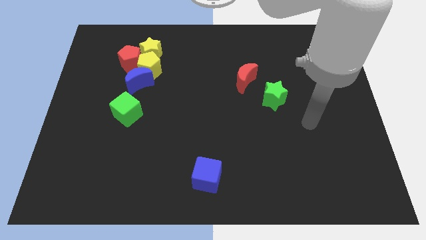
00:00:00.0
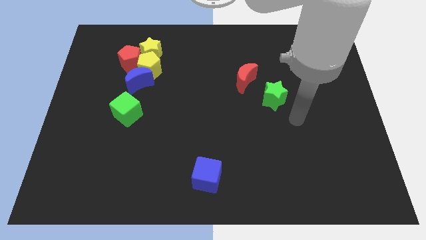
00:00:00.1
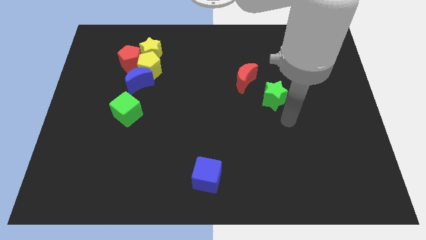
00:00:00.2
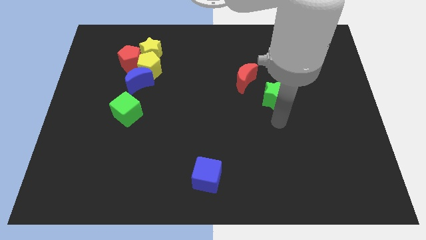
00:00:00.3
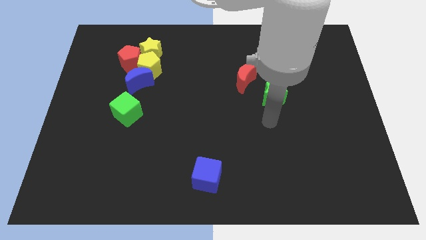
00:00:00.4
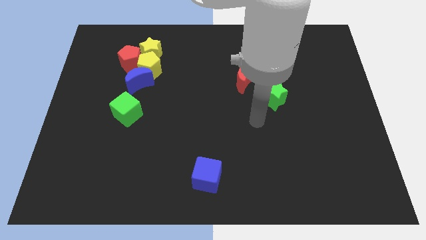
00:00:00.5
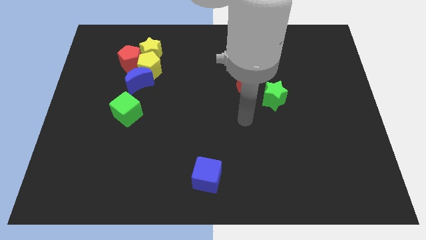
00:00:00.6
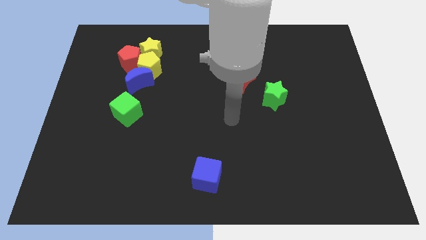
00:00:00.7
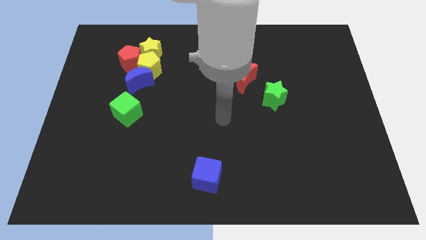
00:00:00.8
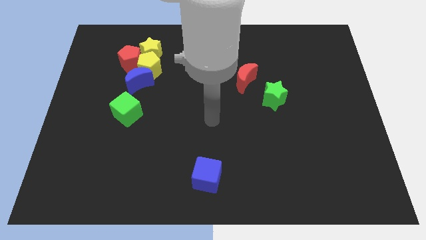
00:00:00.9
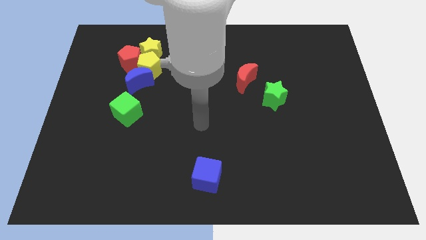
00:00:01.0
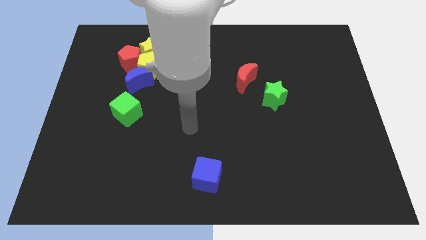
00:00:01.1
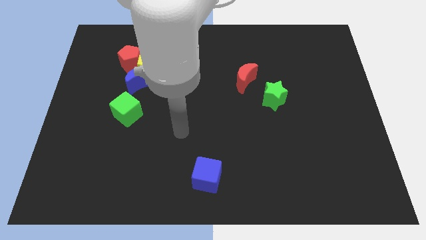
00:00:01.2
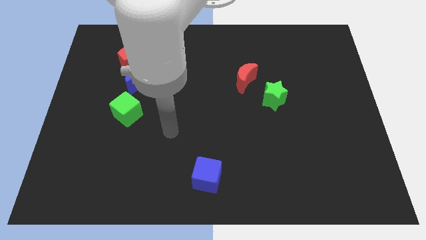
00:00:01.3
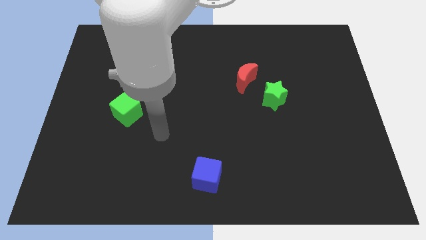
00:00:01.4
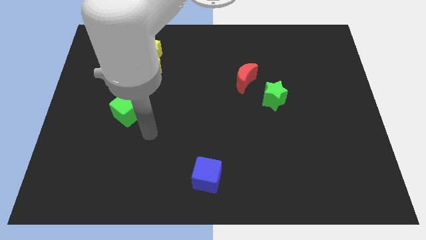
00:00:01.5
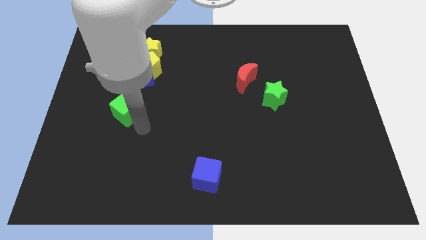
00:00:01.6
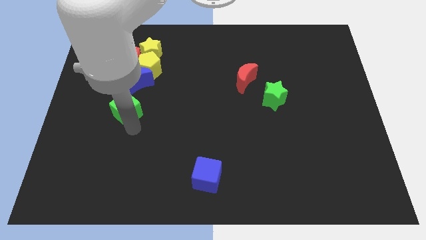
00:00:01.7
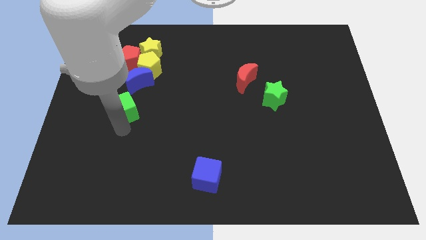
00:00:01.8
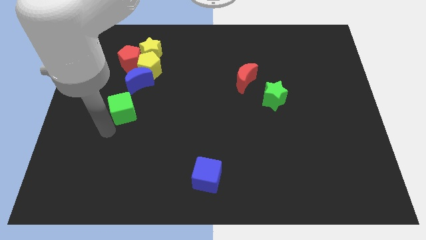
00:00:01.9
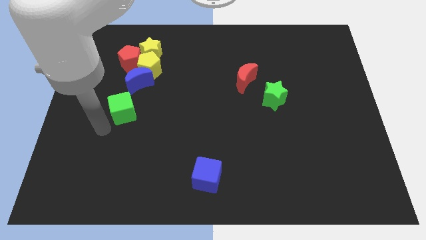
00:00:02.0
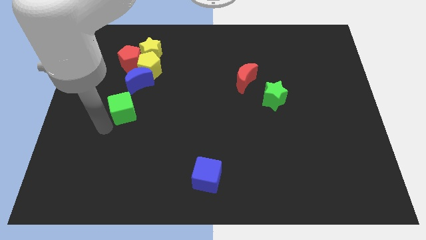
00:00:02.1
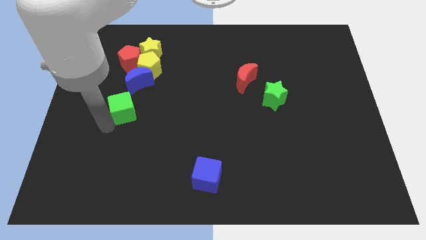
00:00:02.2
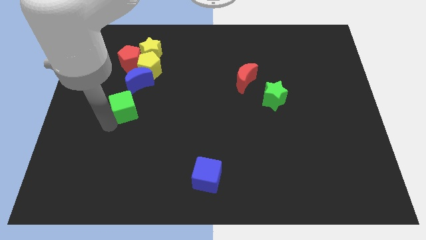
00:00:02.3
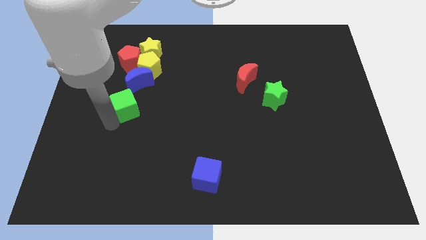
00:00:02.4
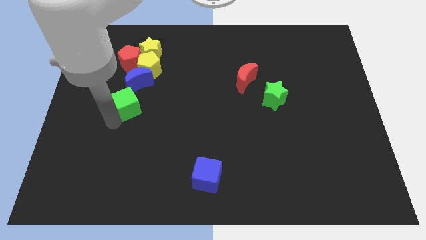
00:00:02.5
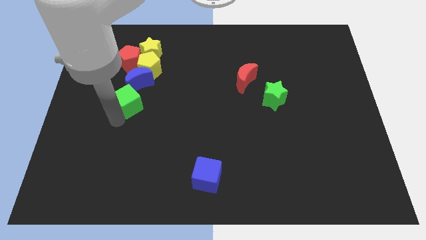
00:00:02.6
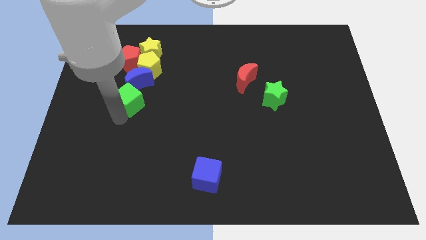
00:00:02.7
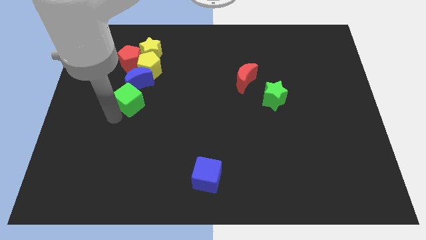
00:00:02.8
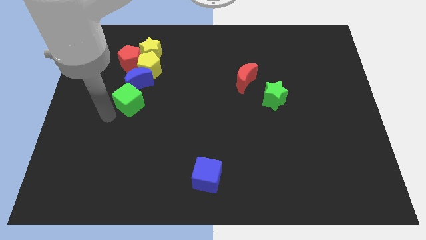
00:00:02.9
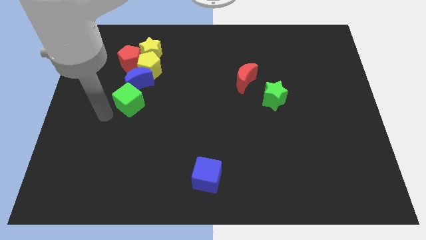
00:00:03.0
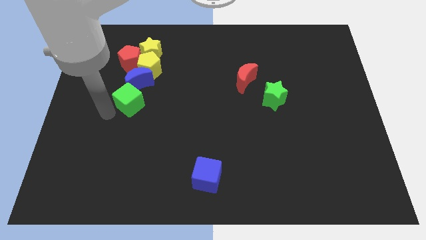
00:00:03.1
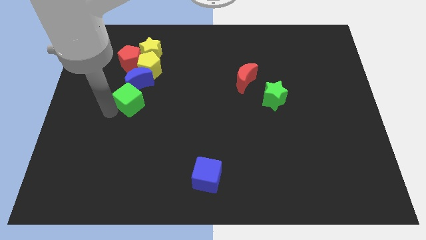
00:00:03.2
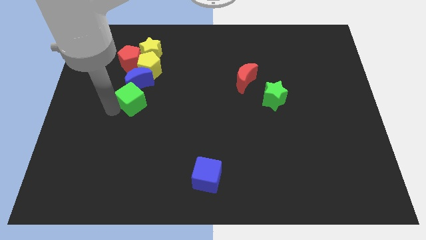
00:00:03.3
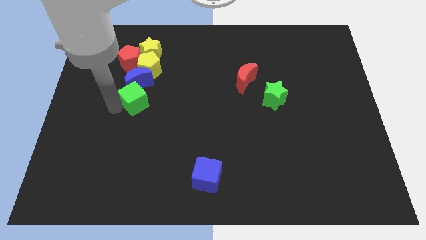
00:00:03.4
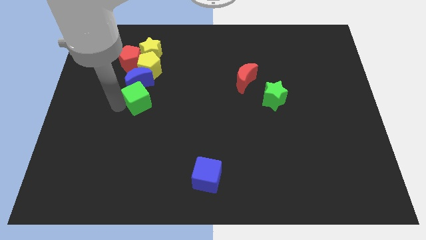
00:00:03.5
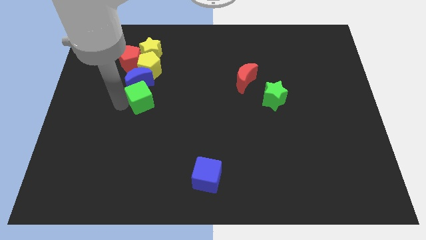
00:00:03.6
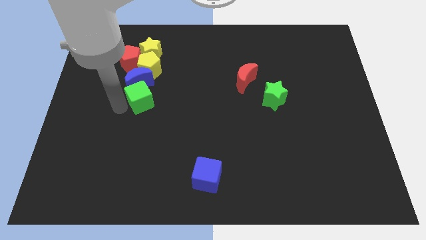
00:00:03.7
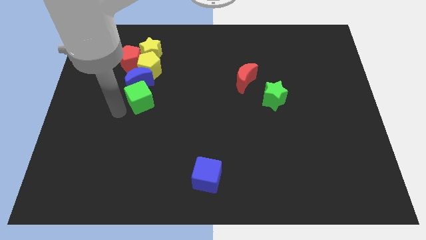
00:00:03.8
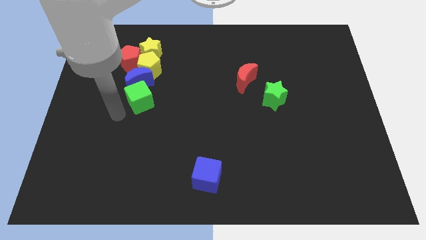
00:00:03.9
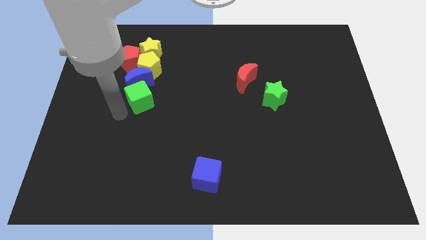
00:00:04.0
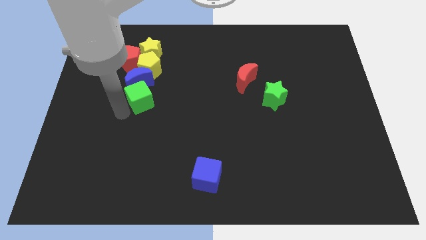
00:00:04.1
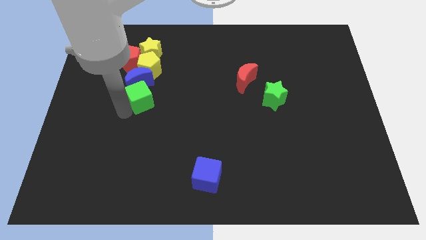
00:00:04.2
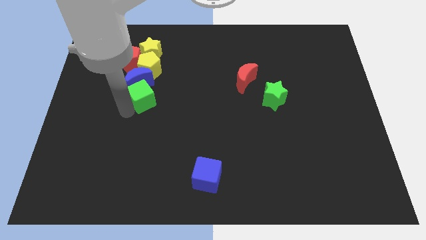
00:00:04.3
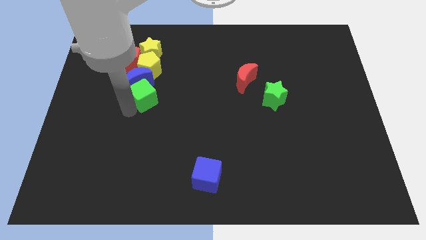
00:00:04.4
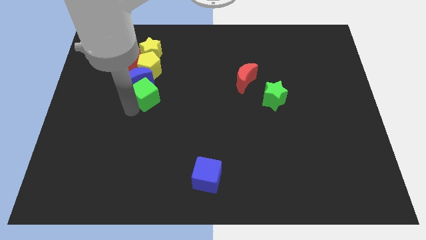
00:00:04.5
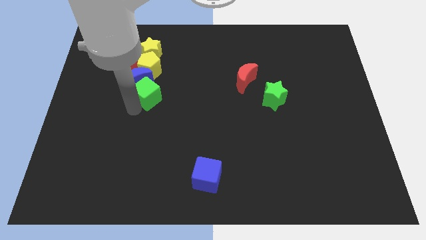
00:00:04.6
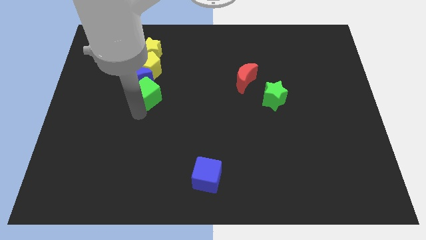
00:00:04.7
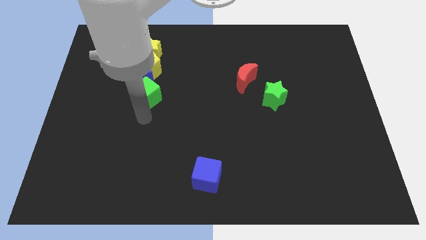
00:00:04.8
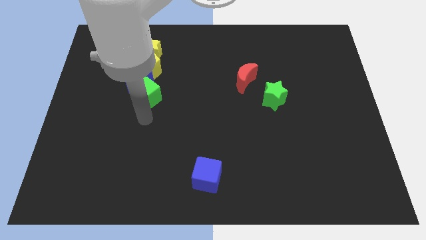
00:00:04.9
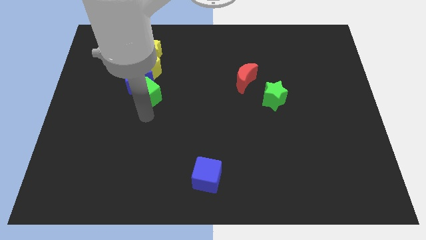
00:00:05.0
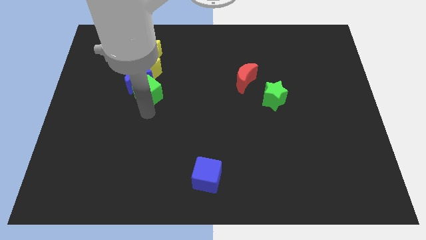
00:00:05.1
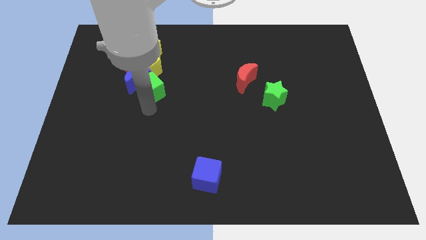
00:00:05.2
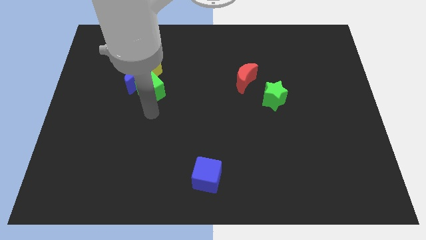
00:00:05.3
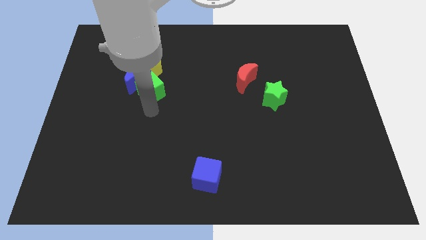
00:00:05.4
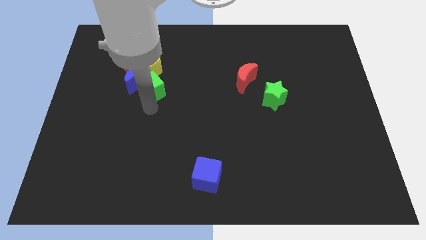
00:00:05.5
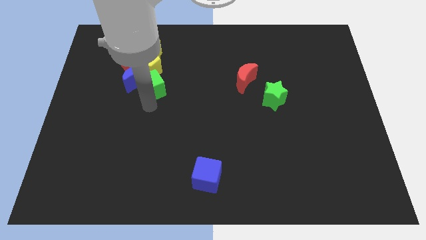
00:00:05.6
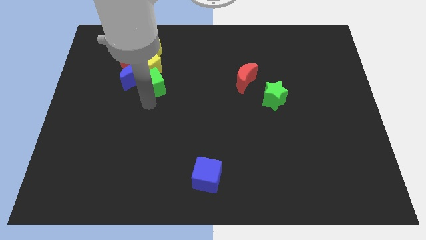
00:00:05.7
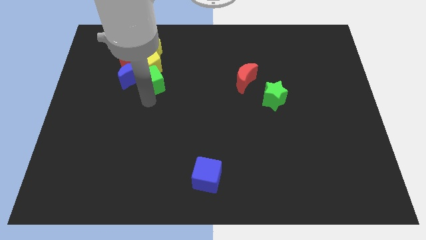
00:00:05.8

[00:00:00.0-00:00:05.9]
move the green cube to the yellow pentagon

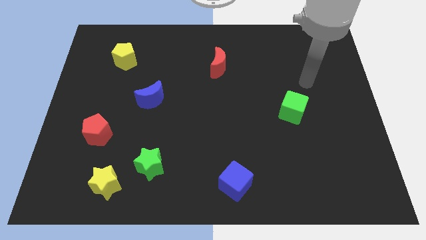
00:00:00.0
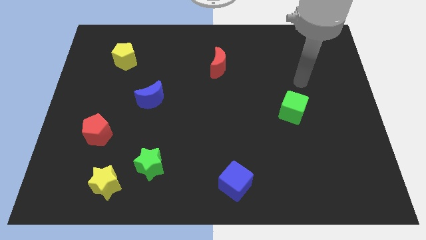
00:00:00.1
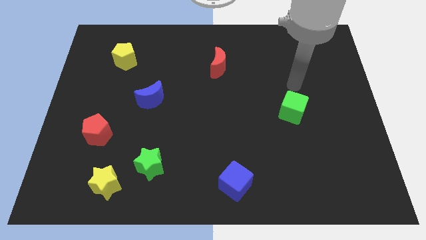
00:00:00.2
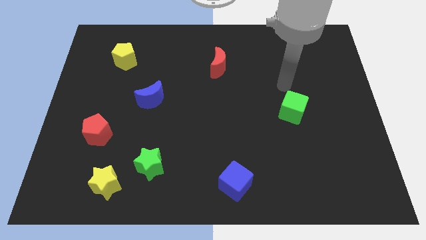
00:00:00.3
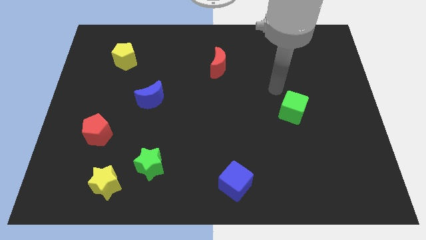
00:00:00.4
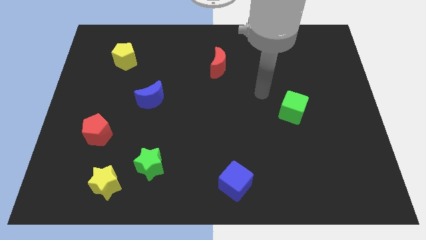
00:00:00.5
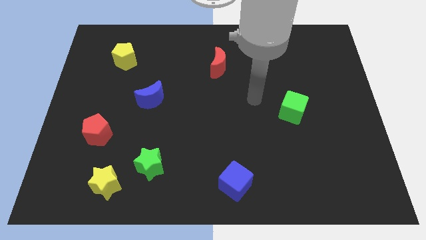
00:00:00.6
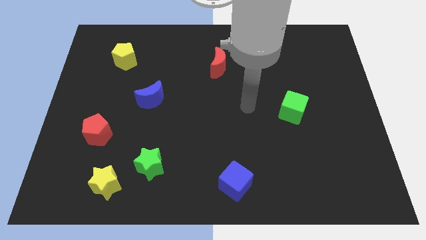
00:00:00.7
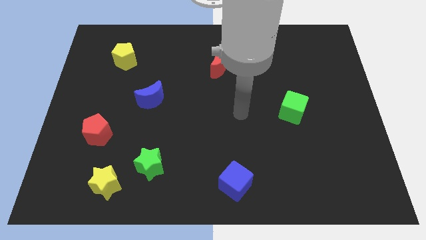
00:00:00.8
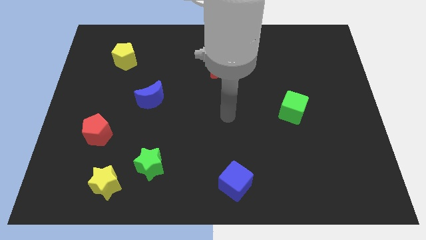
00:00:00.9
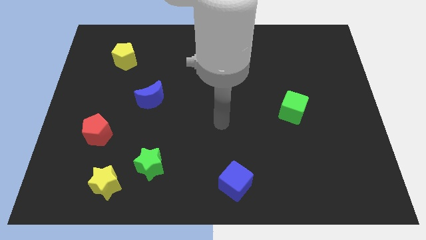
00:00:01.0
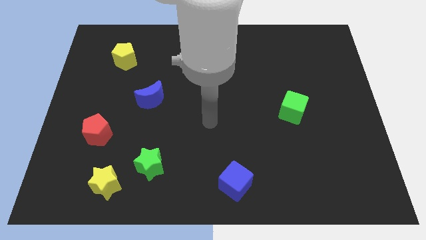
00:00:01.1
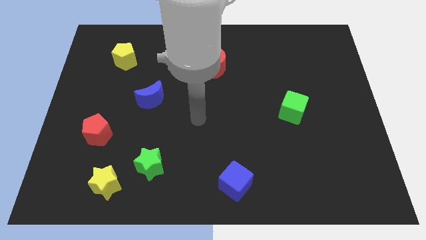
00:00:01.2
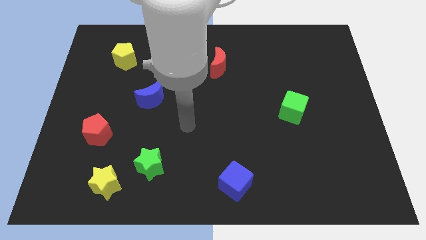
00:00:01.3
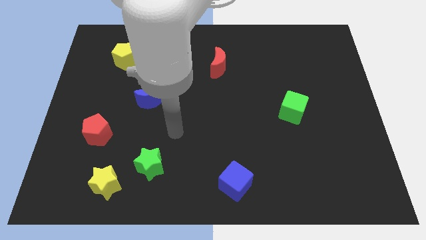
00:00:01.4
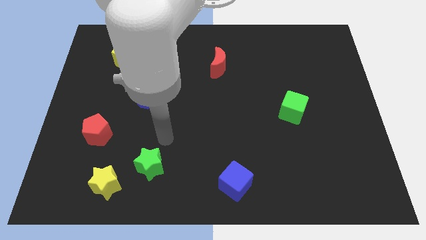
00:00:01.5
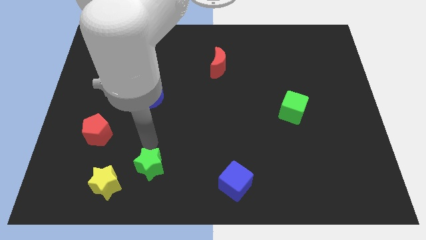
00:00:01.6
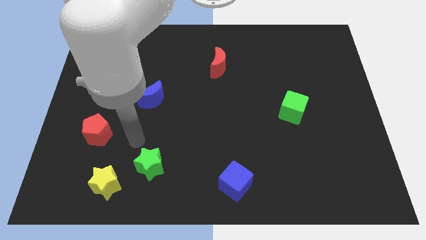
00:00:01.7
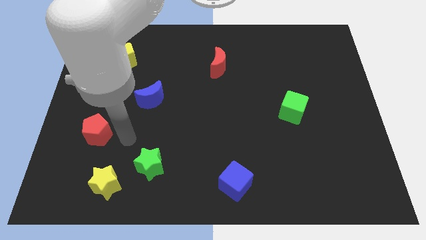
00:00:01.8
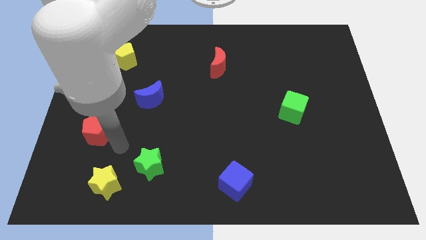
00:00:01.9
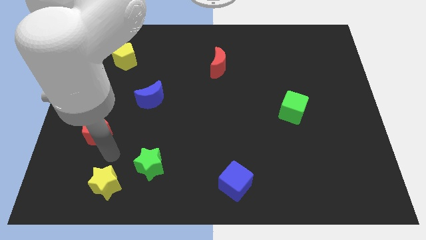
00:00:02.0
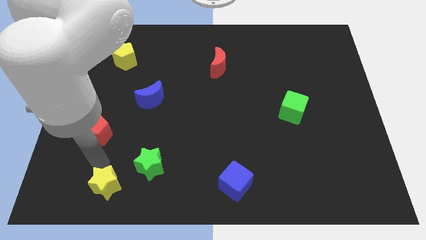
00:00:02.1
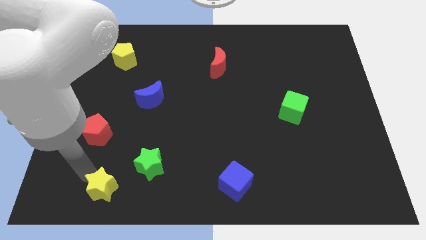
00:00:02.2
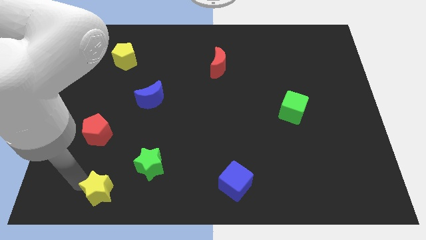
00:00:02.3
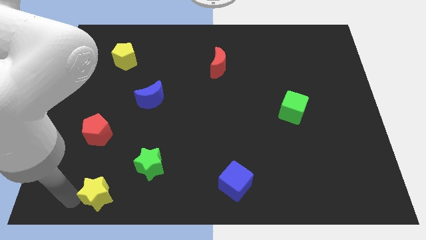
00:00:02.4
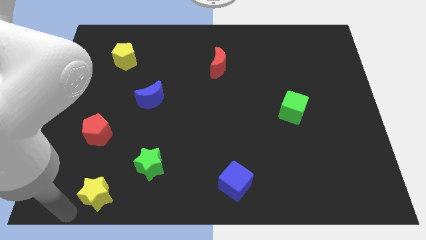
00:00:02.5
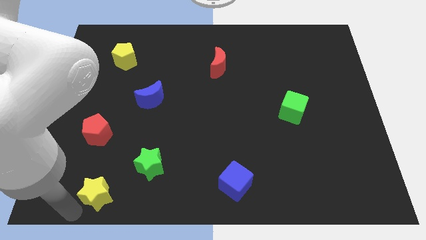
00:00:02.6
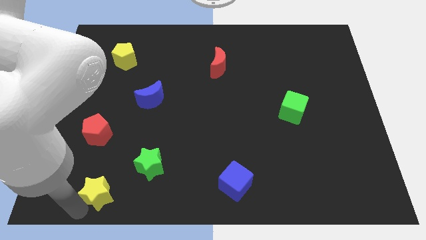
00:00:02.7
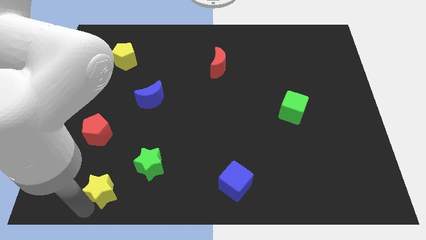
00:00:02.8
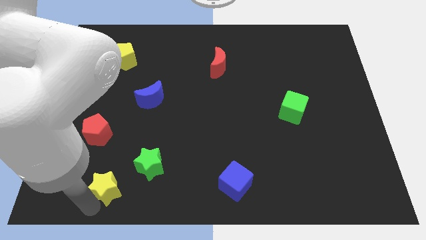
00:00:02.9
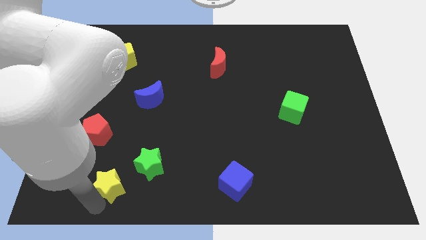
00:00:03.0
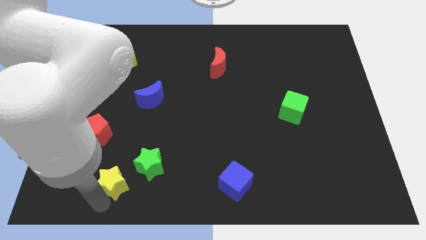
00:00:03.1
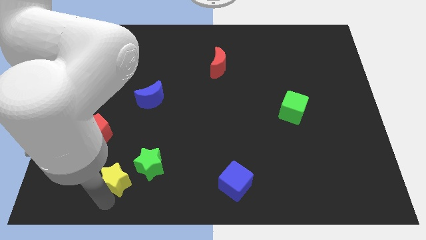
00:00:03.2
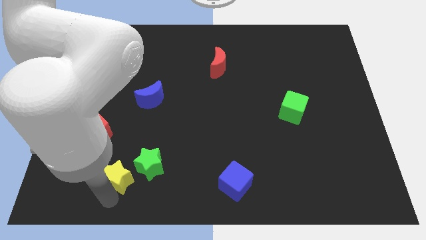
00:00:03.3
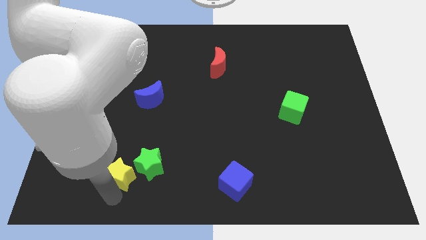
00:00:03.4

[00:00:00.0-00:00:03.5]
push the yellow star close to the green star
